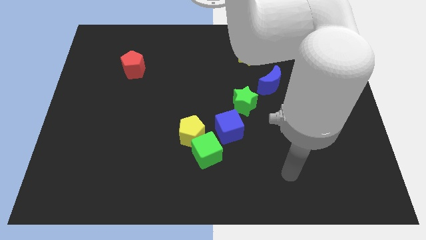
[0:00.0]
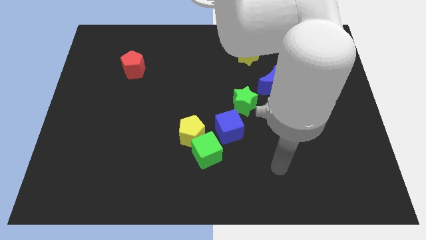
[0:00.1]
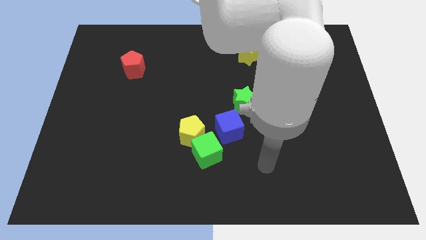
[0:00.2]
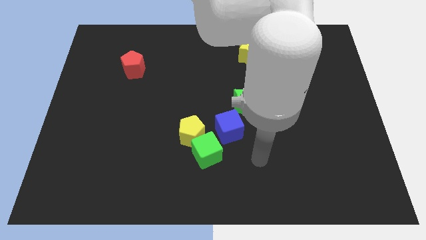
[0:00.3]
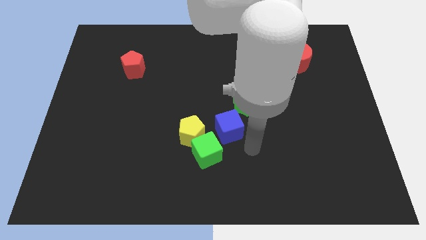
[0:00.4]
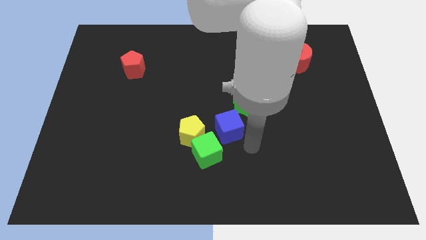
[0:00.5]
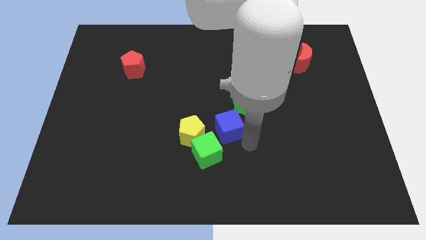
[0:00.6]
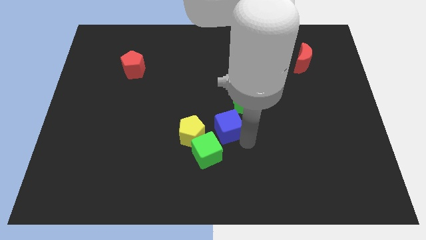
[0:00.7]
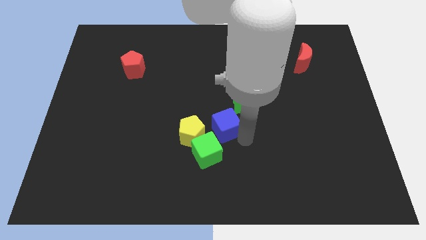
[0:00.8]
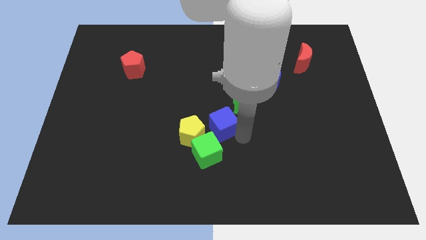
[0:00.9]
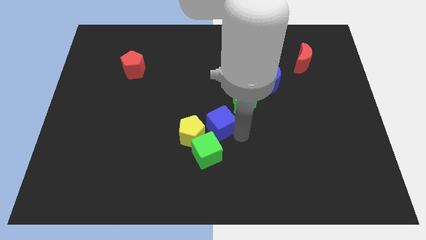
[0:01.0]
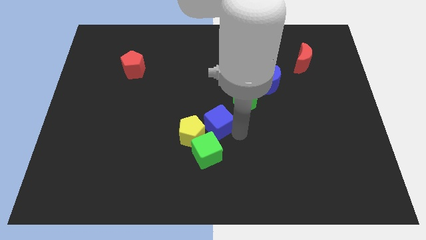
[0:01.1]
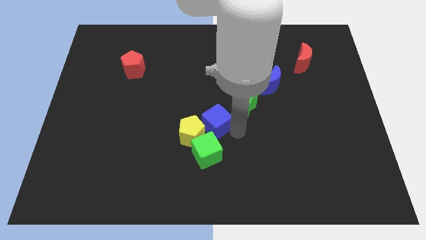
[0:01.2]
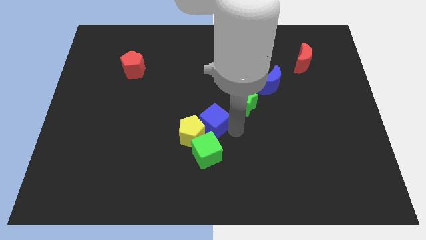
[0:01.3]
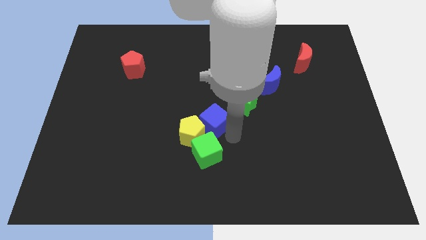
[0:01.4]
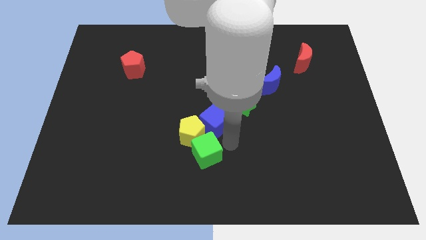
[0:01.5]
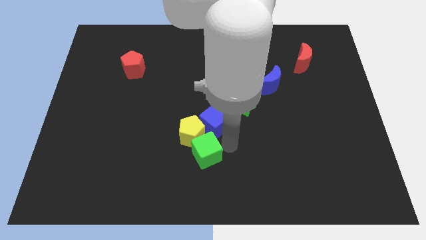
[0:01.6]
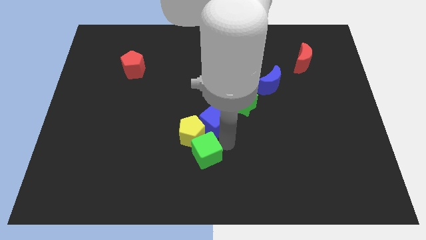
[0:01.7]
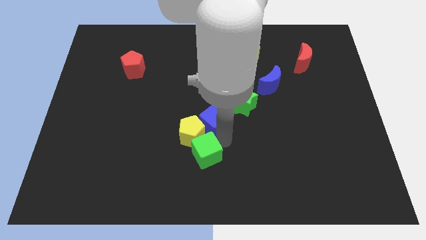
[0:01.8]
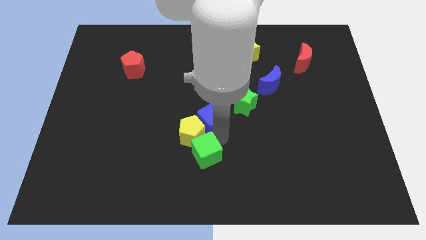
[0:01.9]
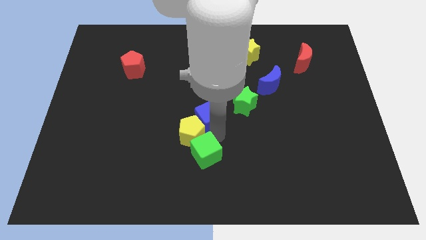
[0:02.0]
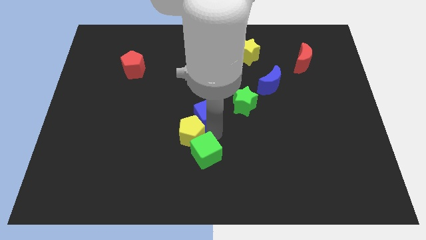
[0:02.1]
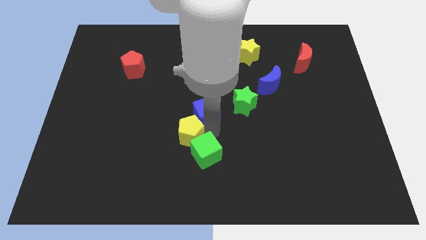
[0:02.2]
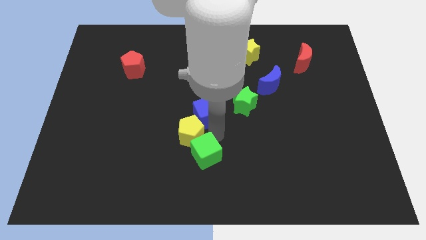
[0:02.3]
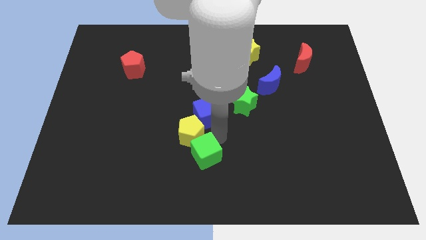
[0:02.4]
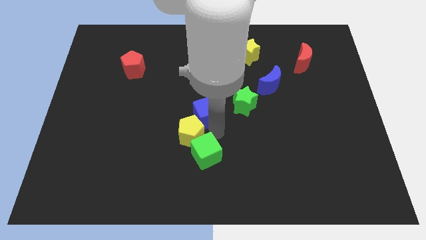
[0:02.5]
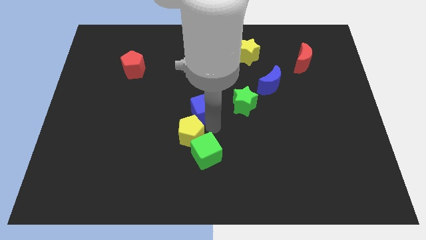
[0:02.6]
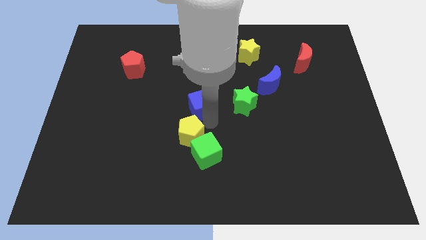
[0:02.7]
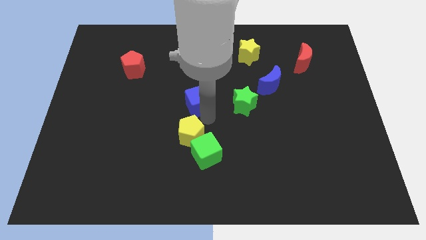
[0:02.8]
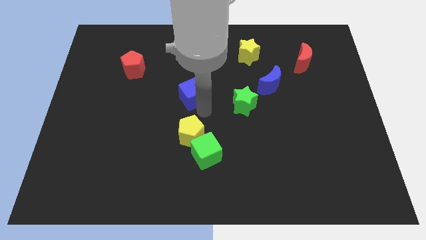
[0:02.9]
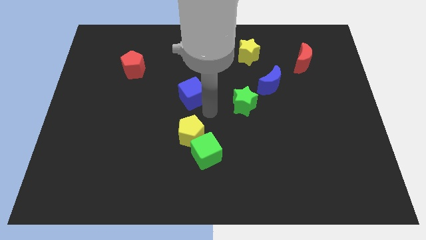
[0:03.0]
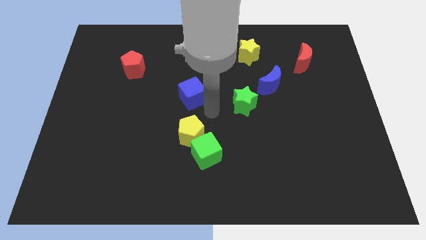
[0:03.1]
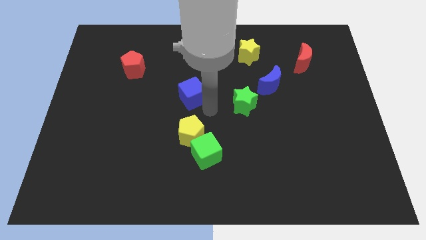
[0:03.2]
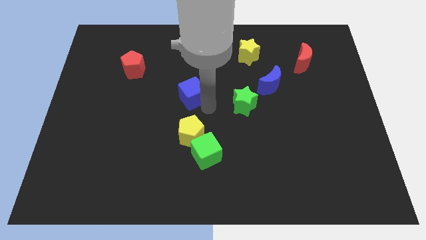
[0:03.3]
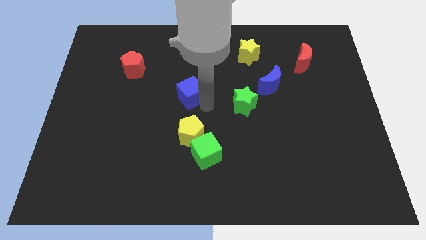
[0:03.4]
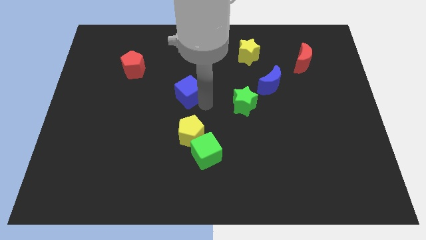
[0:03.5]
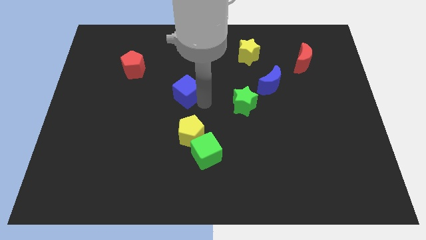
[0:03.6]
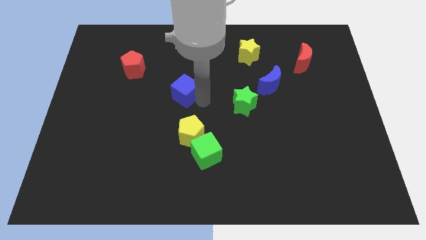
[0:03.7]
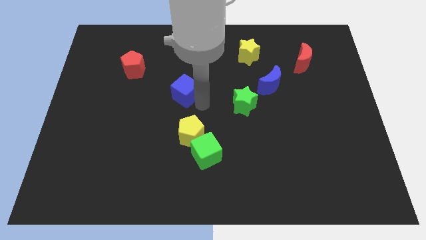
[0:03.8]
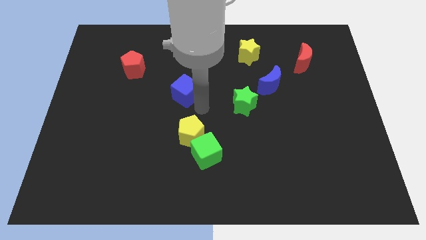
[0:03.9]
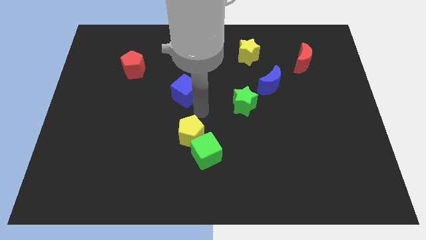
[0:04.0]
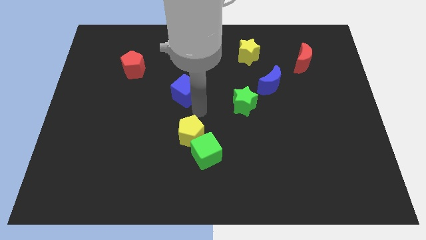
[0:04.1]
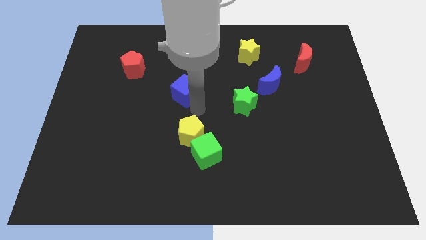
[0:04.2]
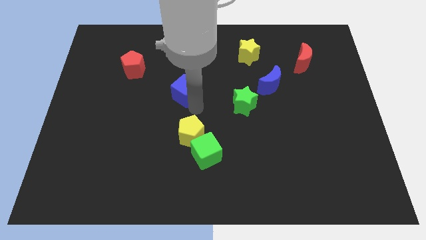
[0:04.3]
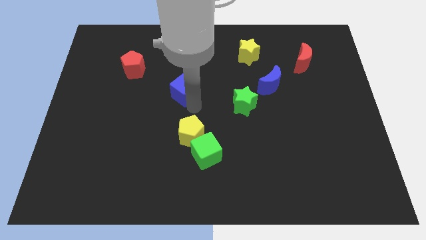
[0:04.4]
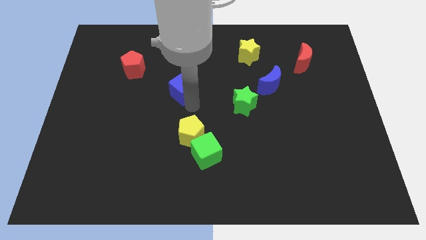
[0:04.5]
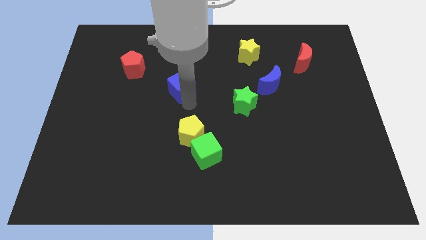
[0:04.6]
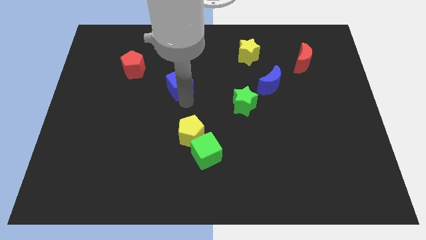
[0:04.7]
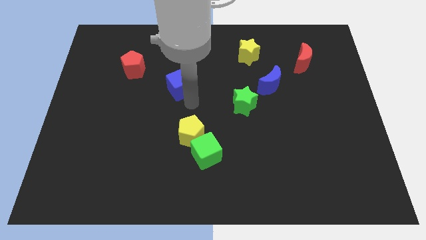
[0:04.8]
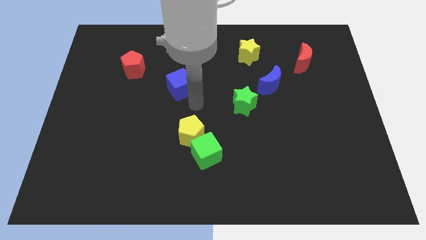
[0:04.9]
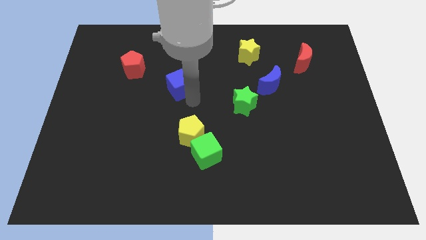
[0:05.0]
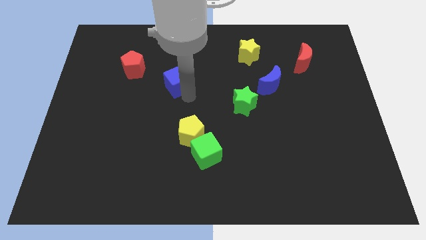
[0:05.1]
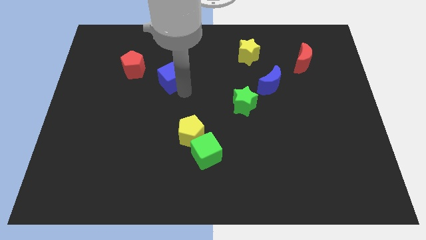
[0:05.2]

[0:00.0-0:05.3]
move the blue cube up and then left

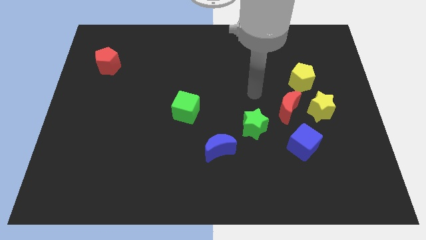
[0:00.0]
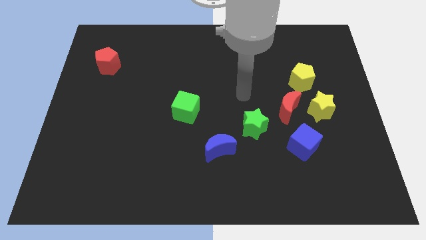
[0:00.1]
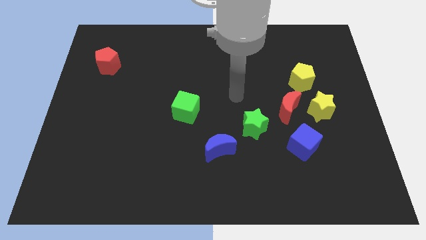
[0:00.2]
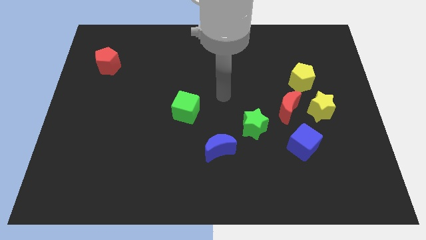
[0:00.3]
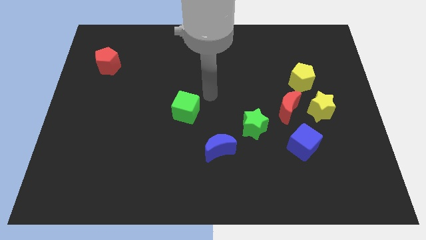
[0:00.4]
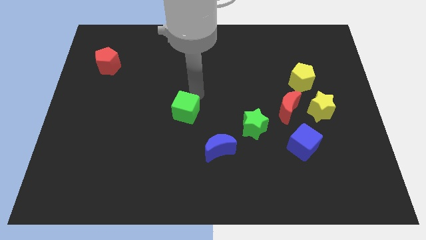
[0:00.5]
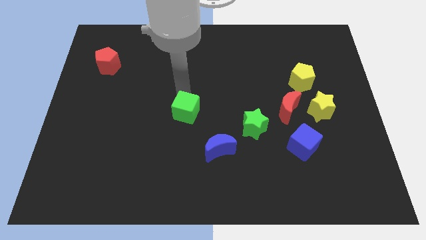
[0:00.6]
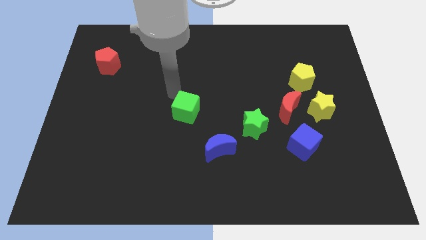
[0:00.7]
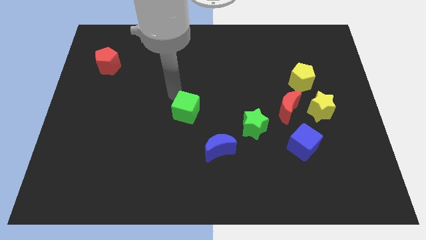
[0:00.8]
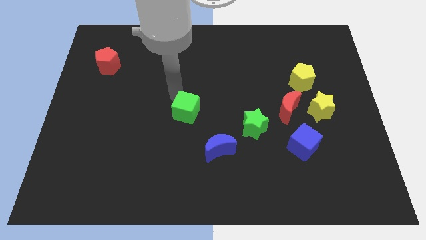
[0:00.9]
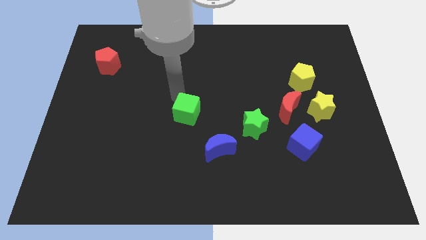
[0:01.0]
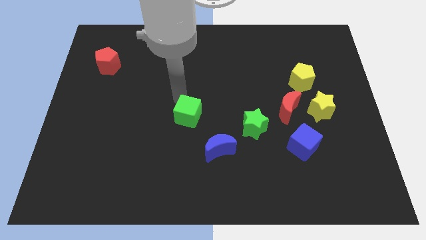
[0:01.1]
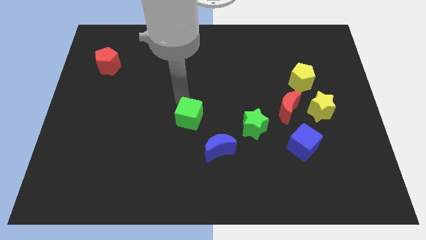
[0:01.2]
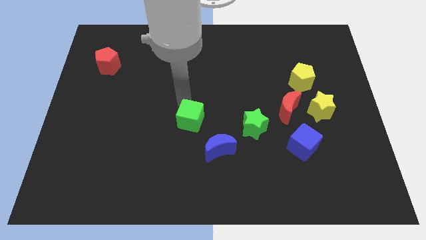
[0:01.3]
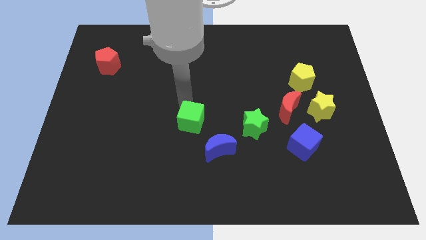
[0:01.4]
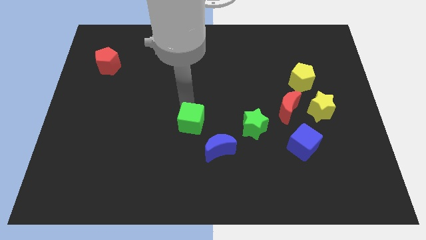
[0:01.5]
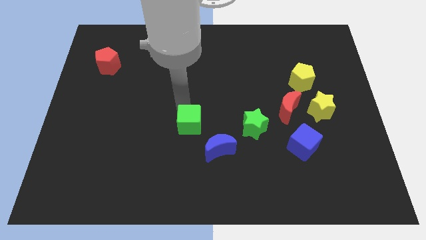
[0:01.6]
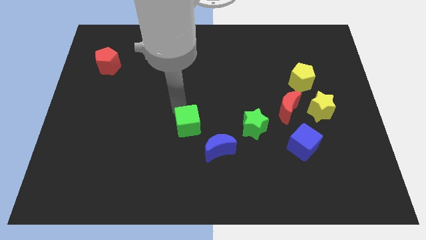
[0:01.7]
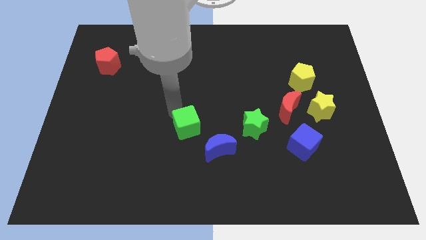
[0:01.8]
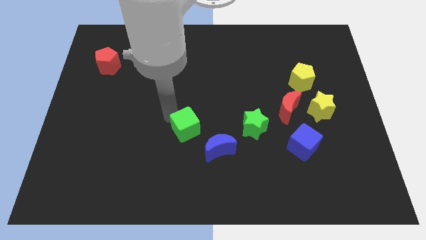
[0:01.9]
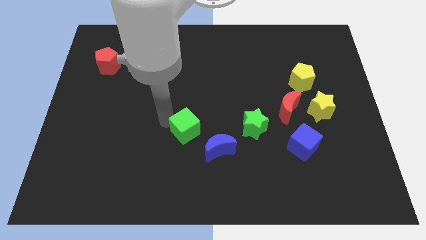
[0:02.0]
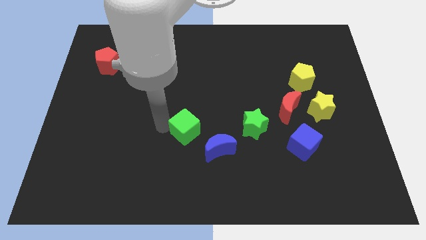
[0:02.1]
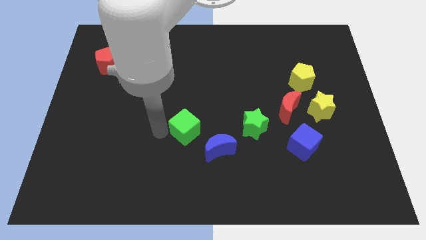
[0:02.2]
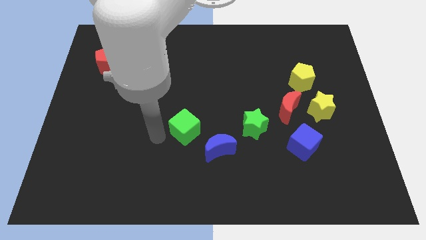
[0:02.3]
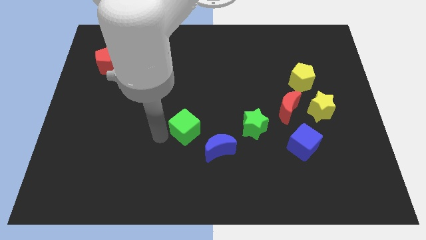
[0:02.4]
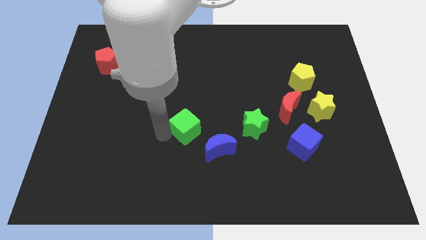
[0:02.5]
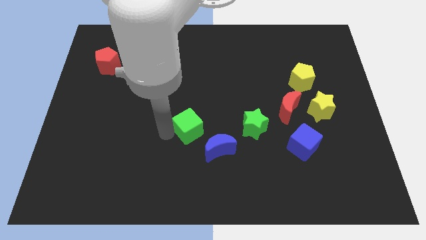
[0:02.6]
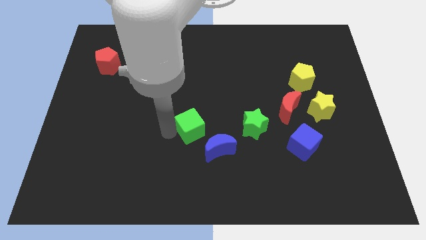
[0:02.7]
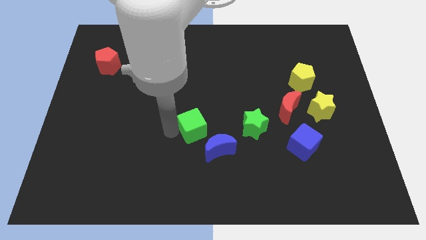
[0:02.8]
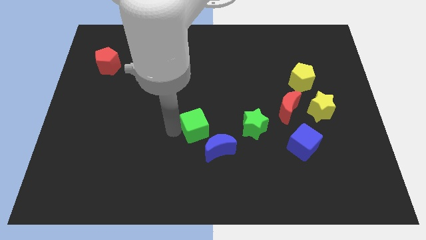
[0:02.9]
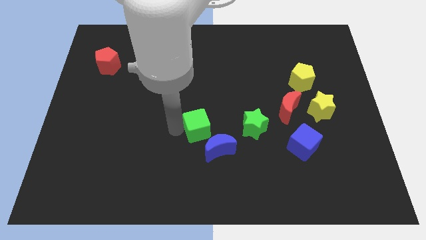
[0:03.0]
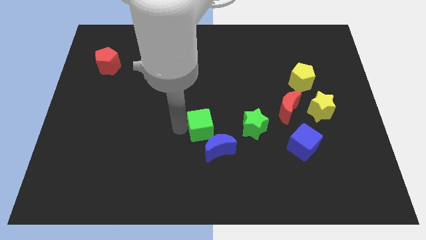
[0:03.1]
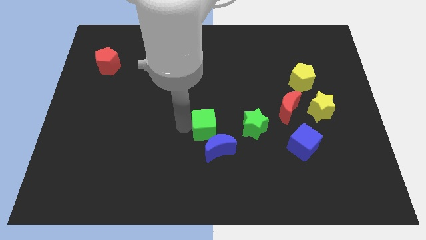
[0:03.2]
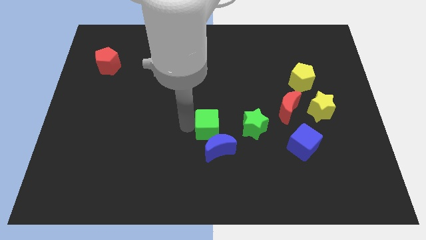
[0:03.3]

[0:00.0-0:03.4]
push the green cube a bit downwards and to the right diagonally
